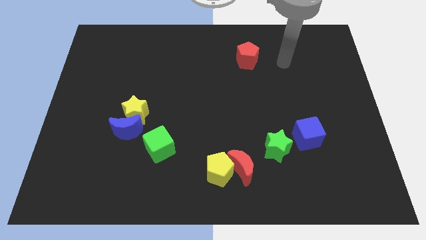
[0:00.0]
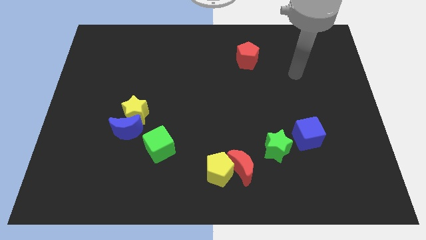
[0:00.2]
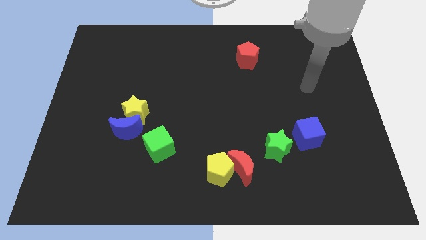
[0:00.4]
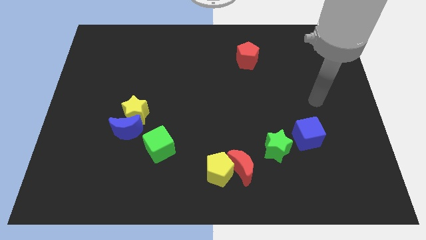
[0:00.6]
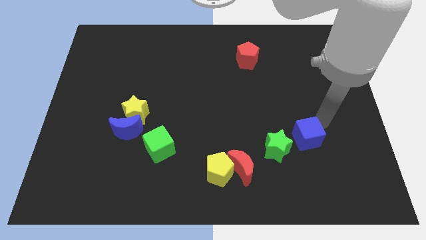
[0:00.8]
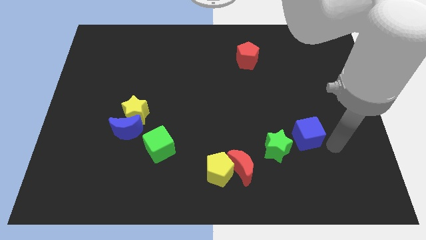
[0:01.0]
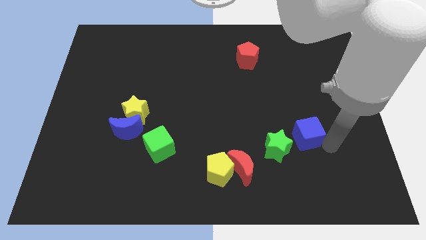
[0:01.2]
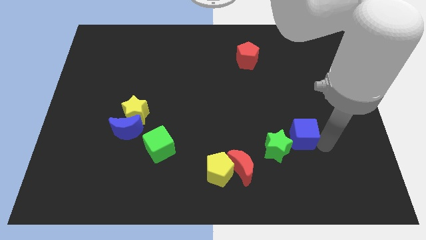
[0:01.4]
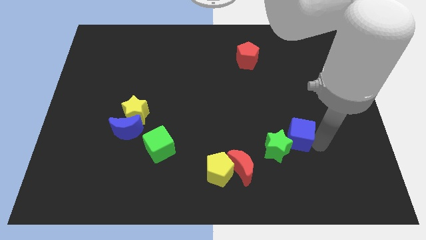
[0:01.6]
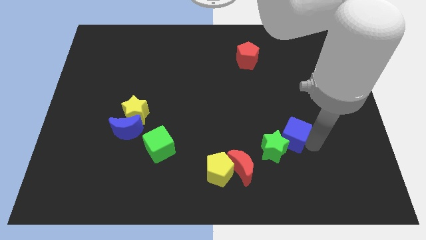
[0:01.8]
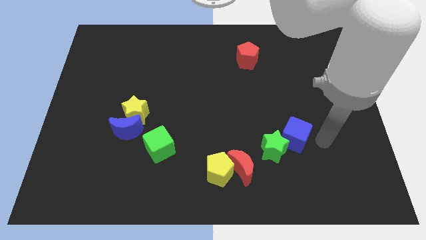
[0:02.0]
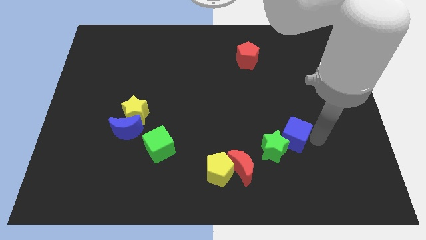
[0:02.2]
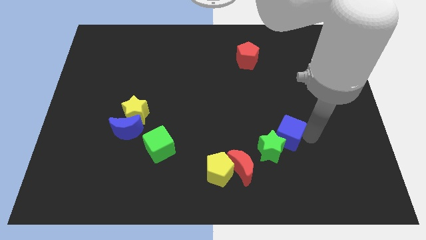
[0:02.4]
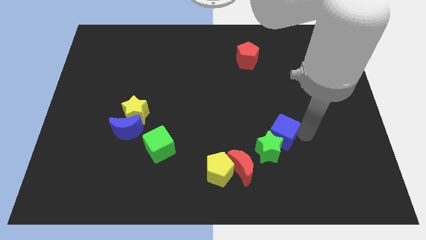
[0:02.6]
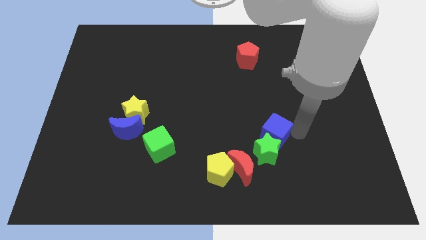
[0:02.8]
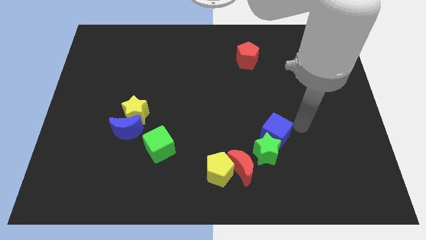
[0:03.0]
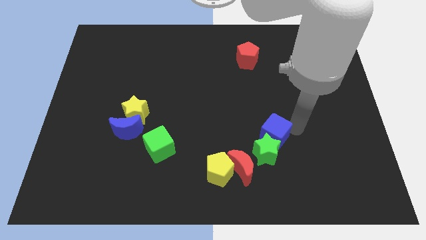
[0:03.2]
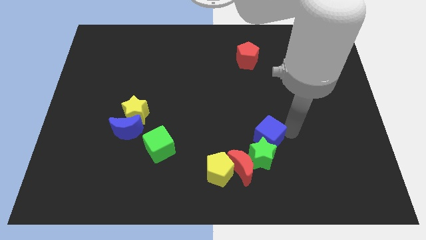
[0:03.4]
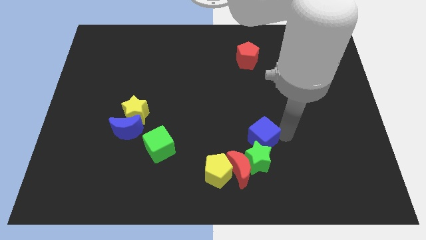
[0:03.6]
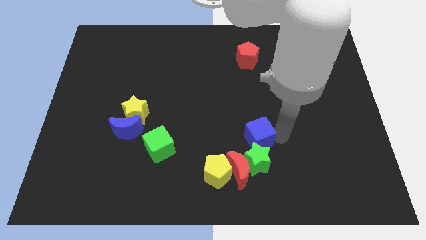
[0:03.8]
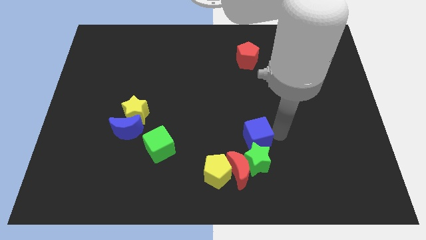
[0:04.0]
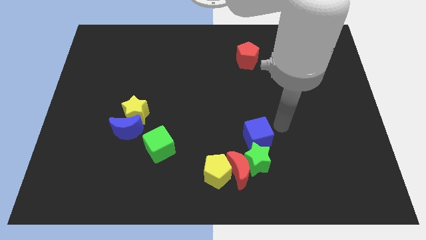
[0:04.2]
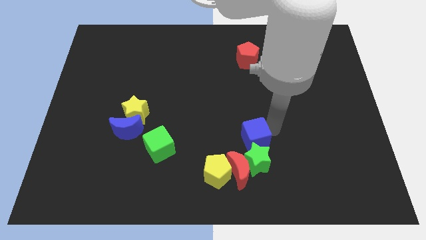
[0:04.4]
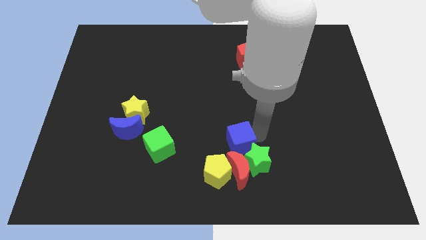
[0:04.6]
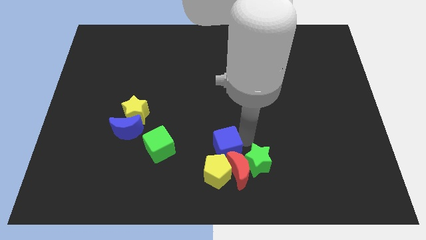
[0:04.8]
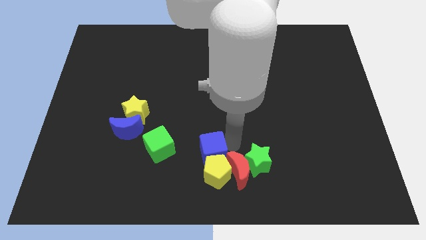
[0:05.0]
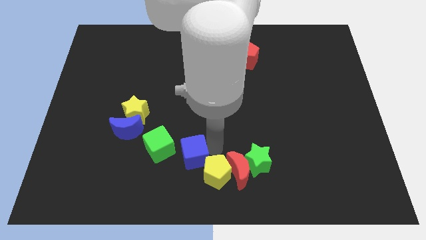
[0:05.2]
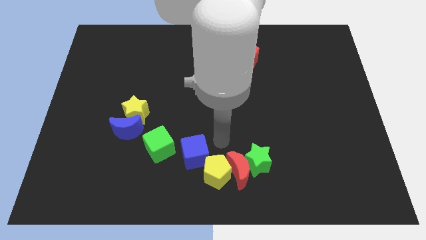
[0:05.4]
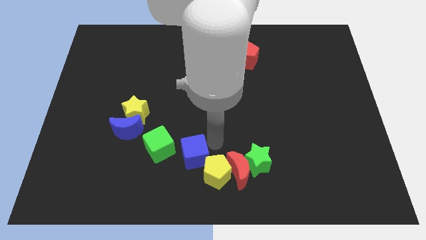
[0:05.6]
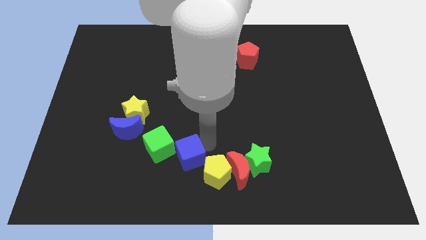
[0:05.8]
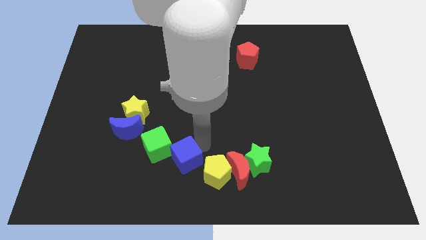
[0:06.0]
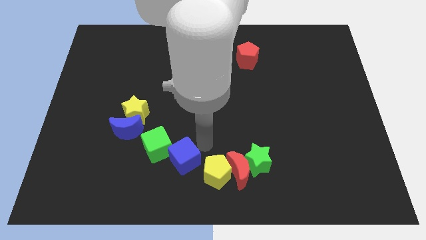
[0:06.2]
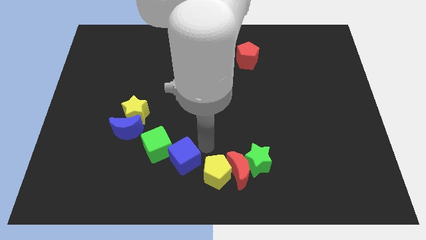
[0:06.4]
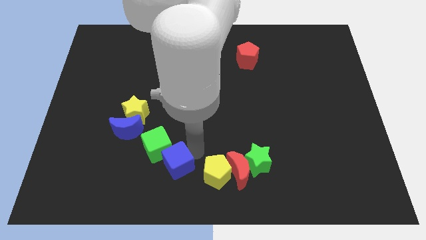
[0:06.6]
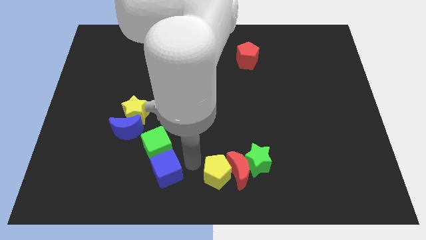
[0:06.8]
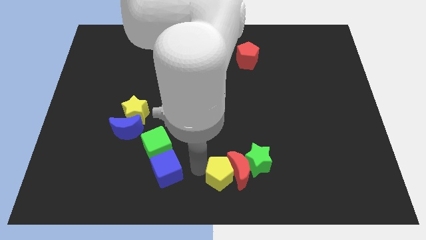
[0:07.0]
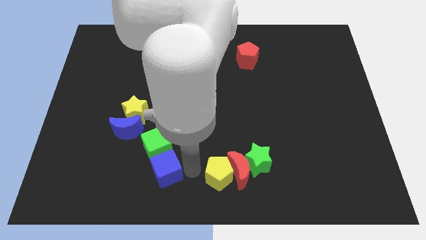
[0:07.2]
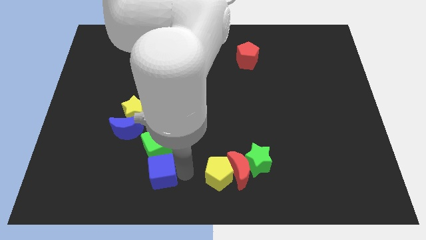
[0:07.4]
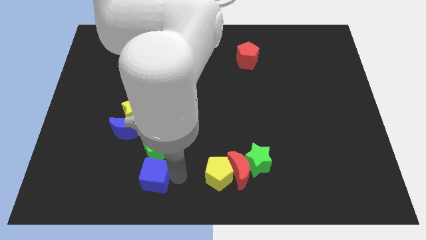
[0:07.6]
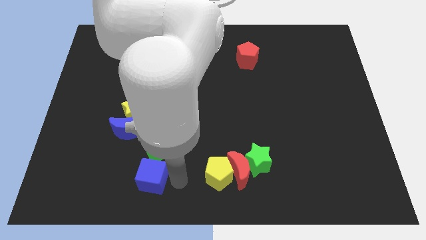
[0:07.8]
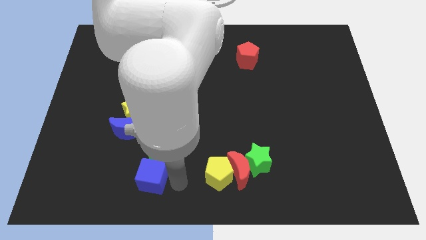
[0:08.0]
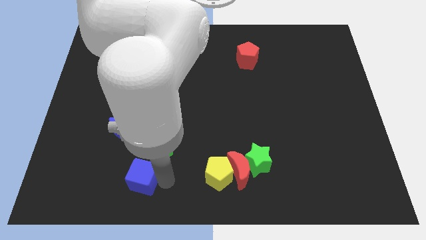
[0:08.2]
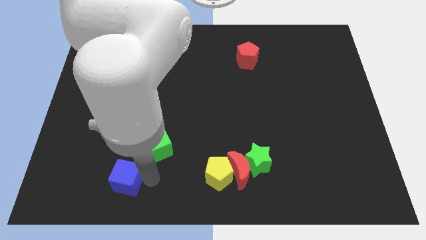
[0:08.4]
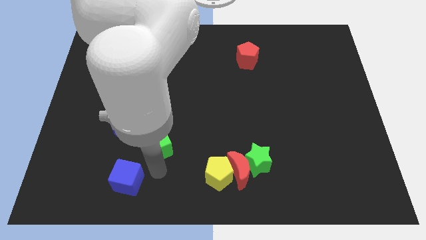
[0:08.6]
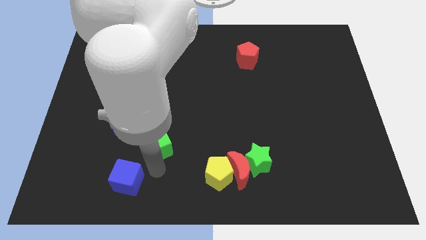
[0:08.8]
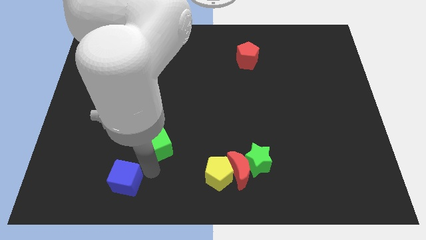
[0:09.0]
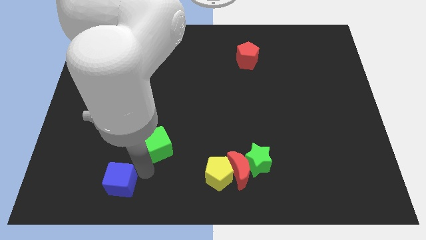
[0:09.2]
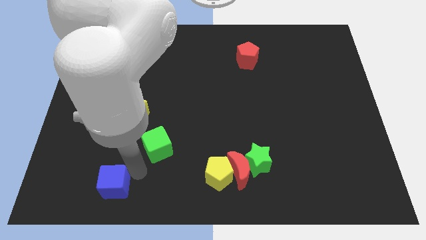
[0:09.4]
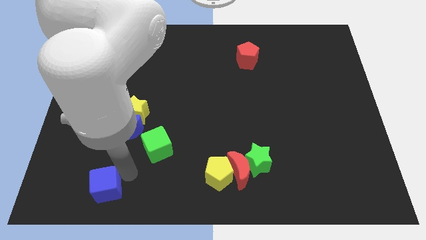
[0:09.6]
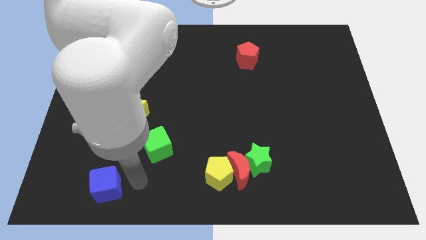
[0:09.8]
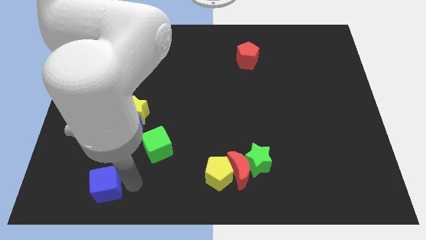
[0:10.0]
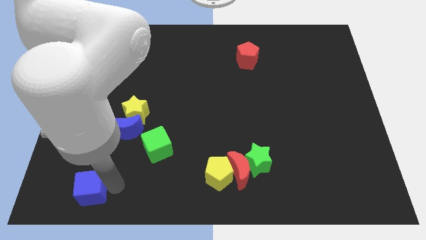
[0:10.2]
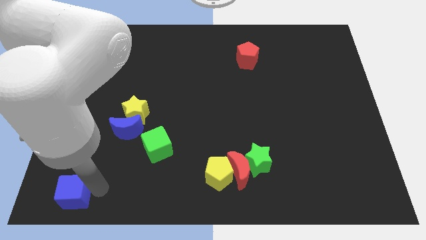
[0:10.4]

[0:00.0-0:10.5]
push the blue cube to the bottom left

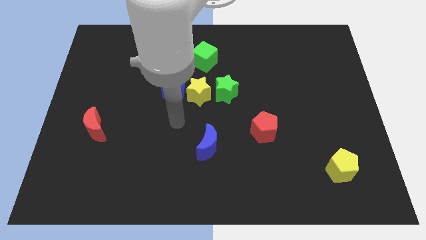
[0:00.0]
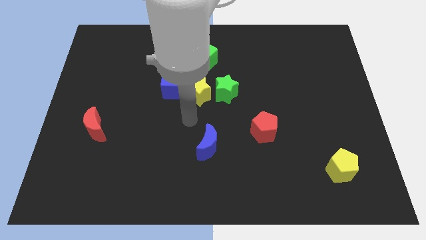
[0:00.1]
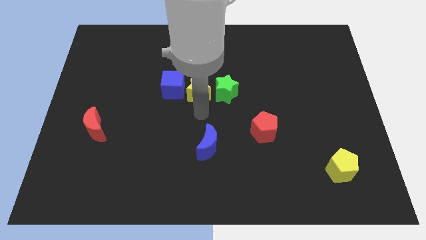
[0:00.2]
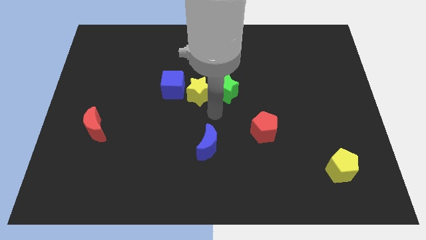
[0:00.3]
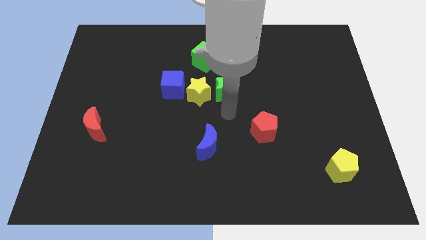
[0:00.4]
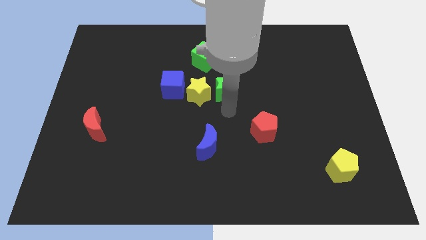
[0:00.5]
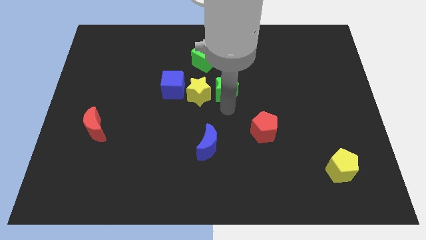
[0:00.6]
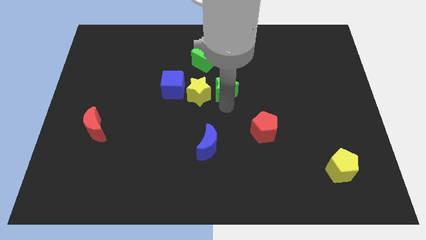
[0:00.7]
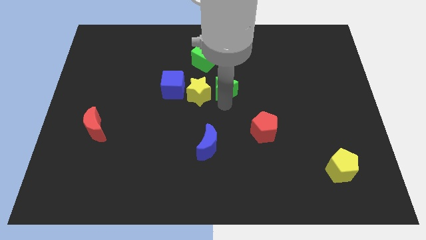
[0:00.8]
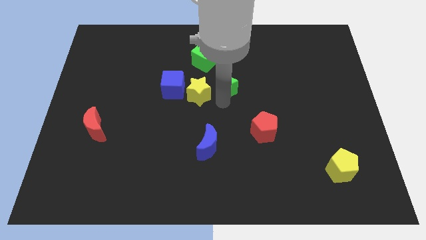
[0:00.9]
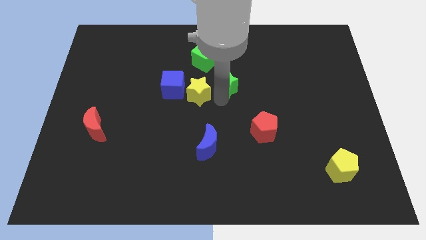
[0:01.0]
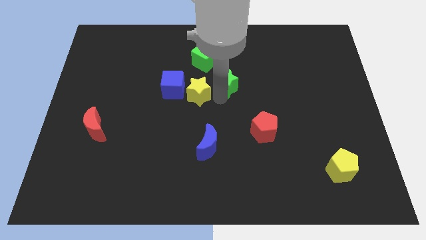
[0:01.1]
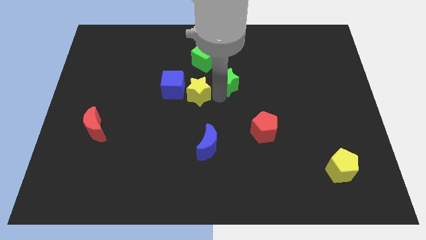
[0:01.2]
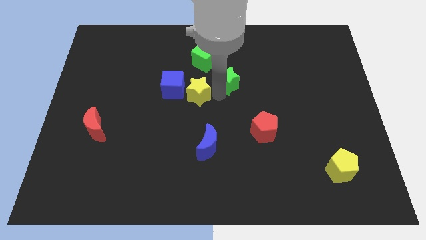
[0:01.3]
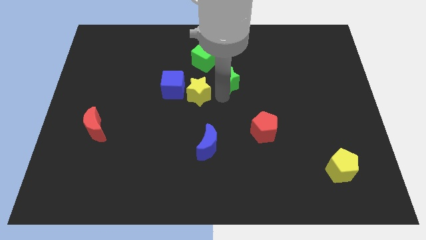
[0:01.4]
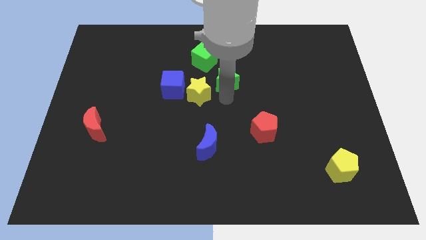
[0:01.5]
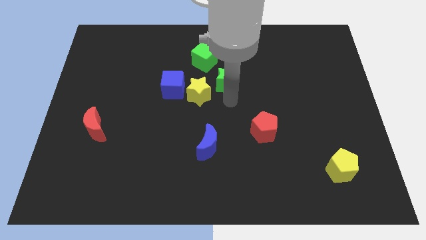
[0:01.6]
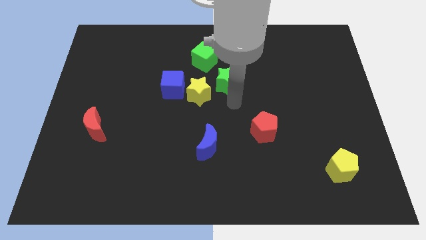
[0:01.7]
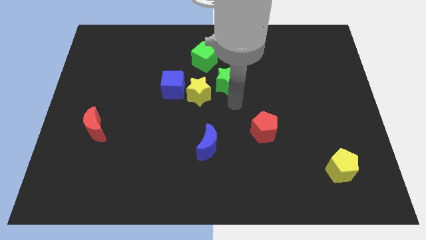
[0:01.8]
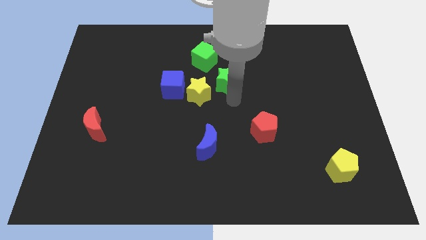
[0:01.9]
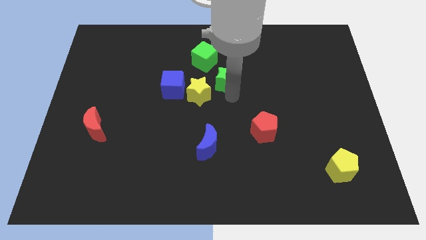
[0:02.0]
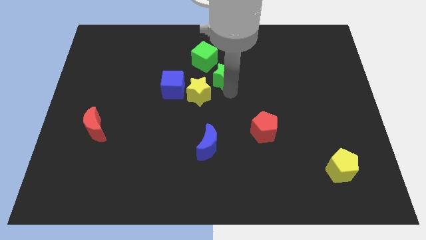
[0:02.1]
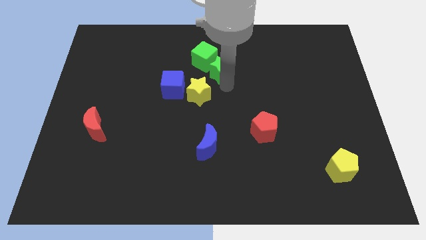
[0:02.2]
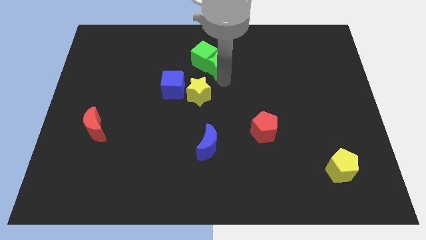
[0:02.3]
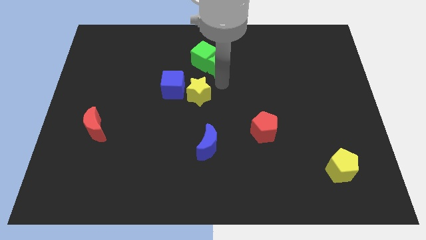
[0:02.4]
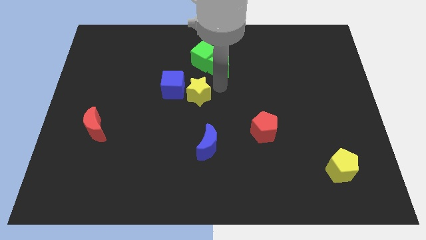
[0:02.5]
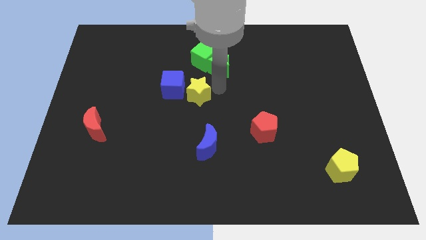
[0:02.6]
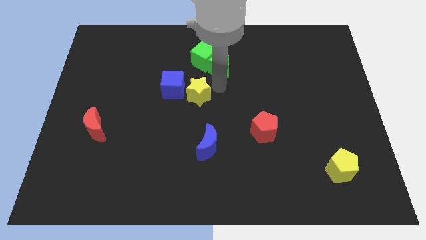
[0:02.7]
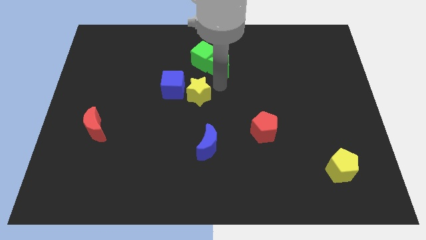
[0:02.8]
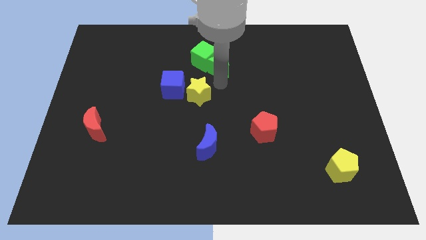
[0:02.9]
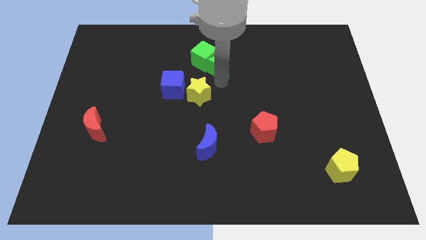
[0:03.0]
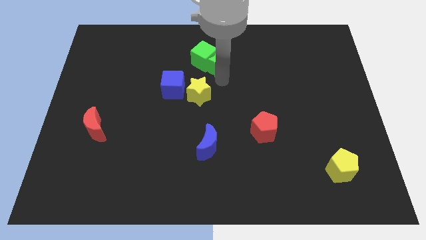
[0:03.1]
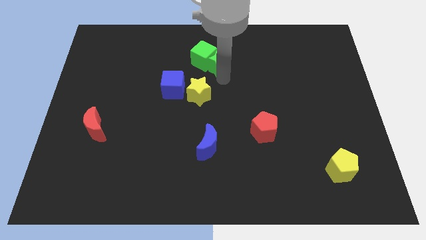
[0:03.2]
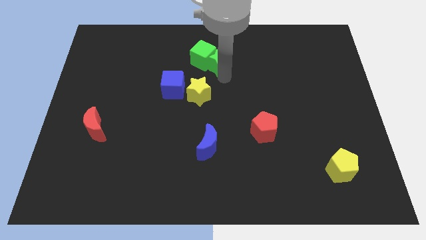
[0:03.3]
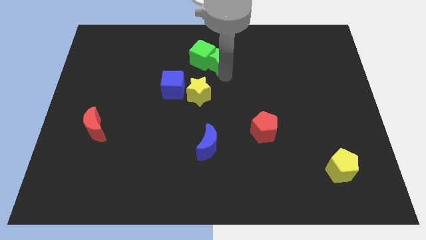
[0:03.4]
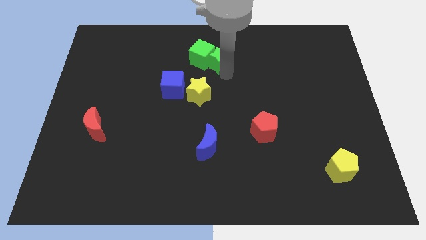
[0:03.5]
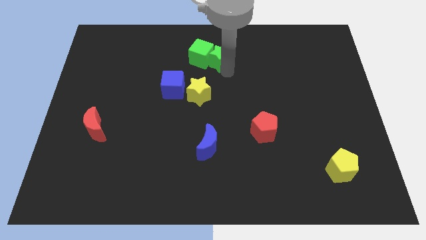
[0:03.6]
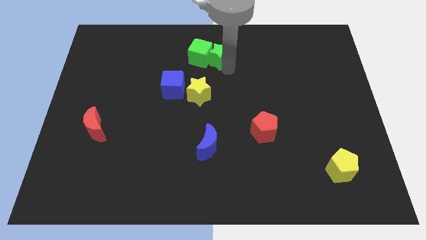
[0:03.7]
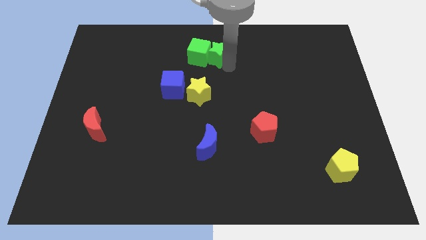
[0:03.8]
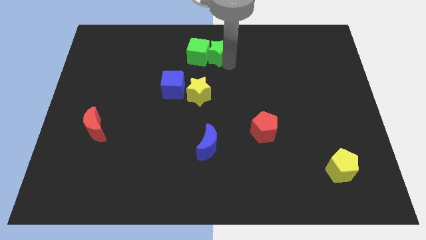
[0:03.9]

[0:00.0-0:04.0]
put the green star to the top side
